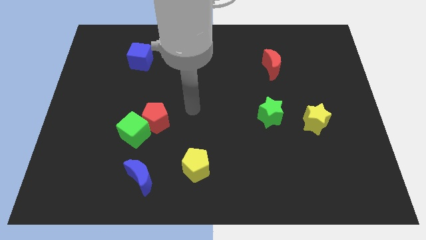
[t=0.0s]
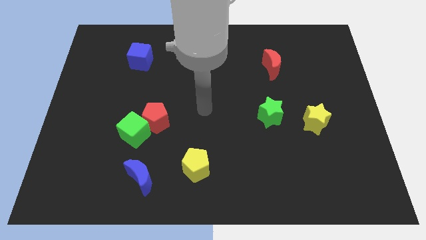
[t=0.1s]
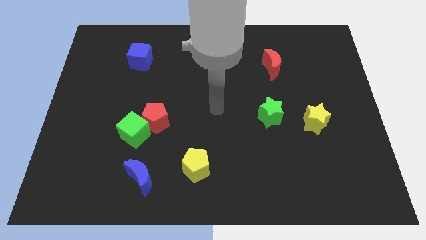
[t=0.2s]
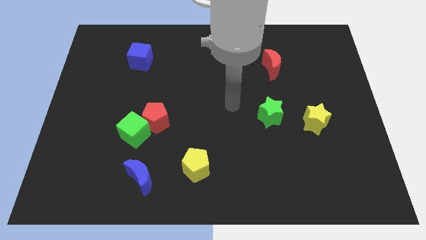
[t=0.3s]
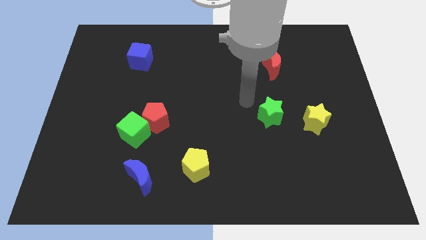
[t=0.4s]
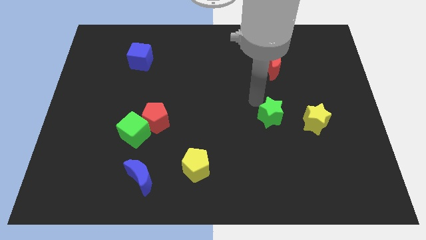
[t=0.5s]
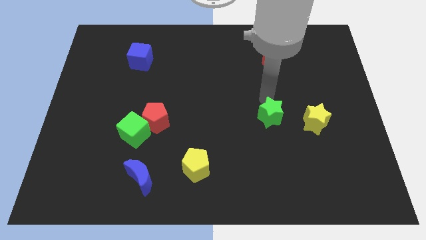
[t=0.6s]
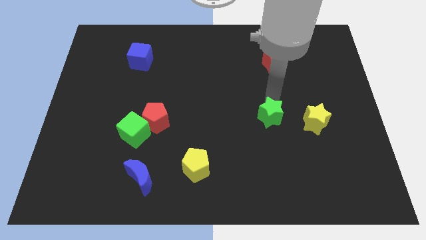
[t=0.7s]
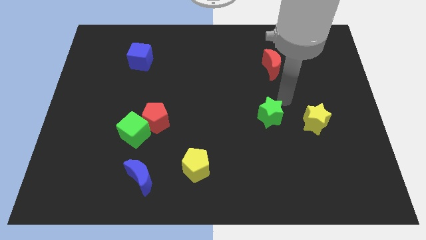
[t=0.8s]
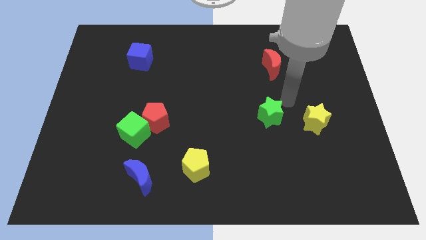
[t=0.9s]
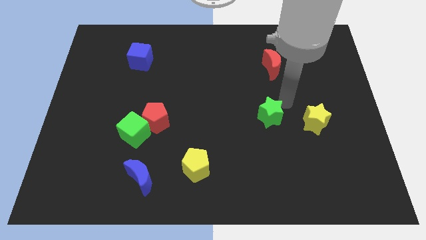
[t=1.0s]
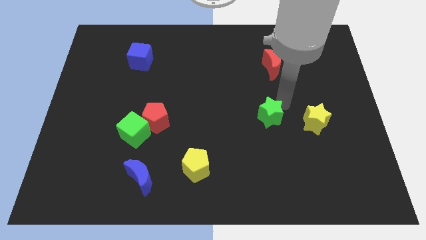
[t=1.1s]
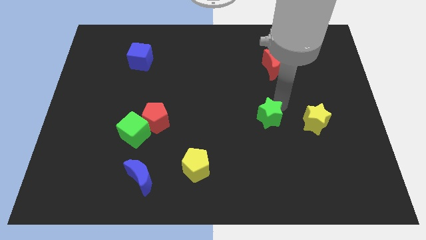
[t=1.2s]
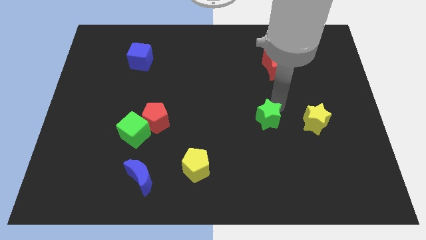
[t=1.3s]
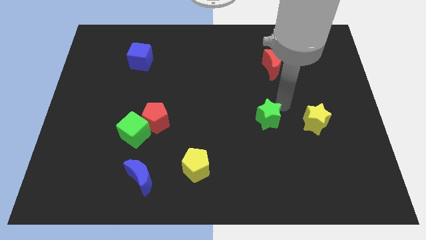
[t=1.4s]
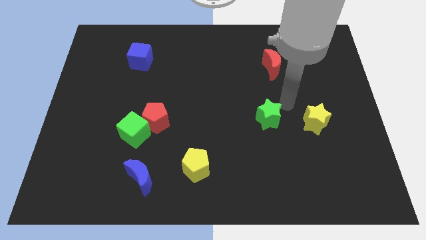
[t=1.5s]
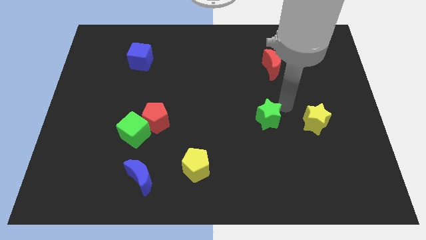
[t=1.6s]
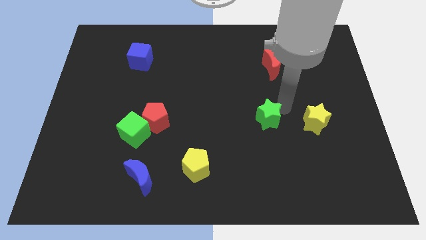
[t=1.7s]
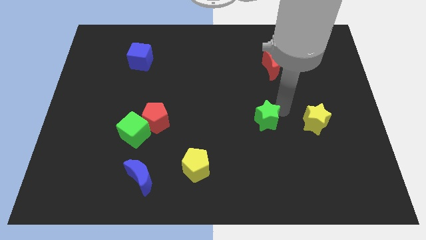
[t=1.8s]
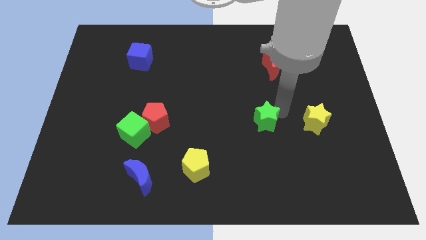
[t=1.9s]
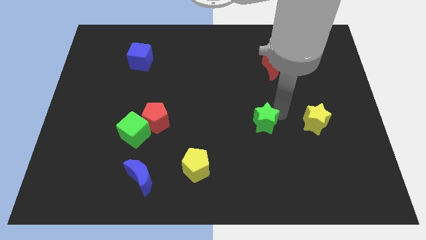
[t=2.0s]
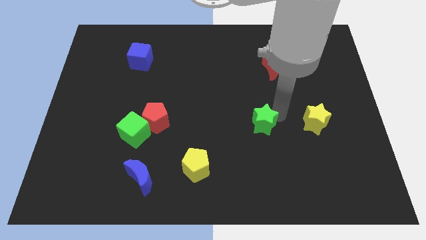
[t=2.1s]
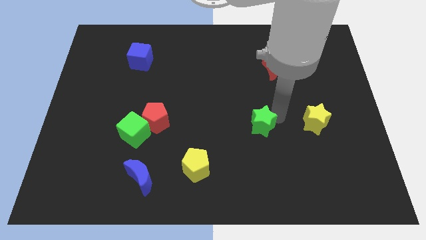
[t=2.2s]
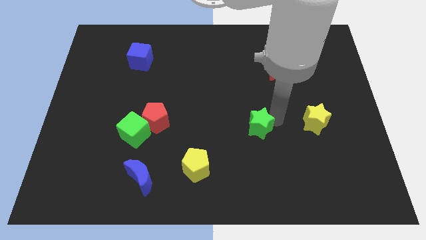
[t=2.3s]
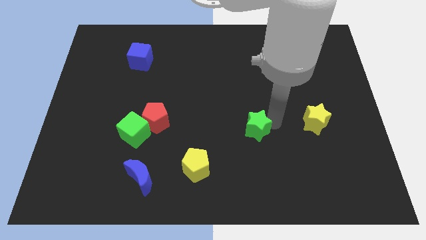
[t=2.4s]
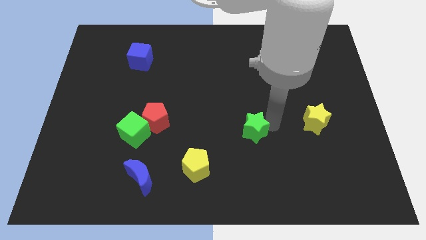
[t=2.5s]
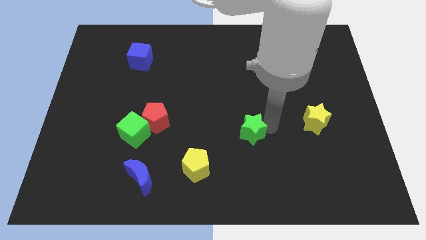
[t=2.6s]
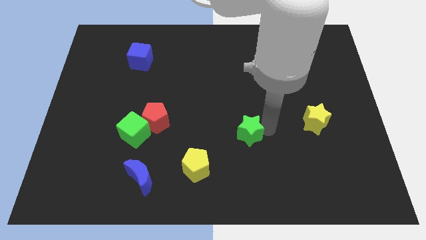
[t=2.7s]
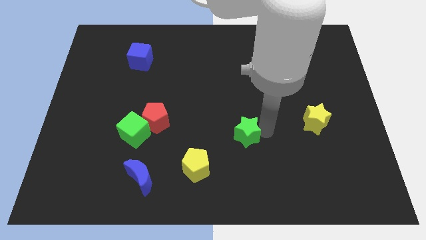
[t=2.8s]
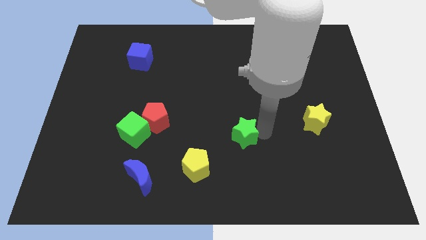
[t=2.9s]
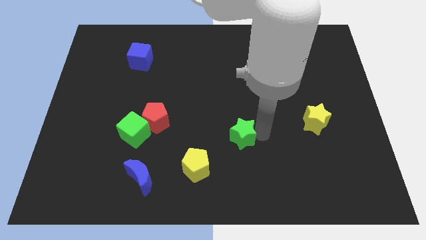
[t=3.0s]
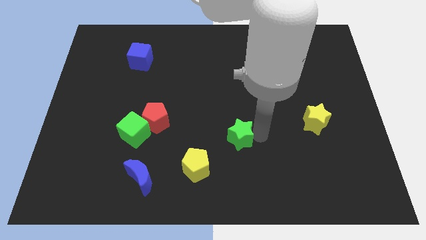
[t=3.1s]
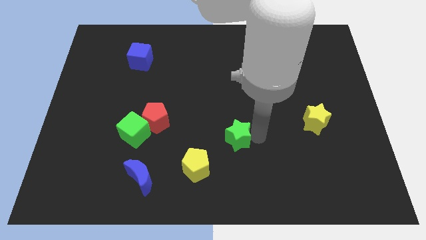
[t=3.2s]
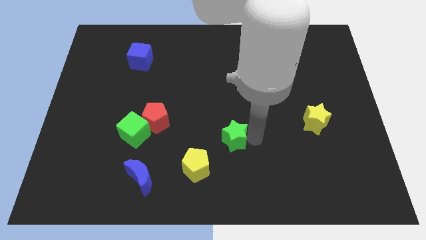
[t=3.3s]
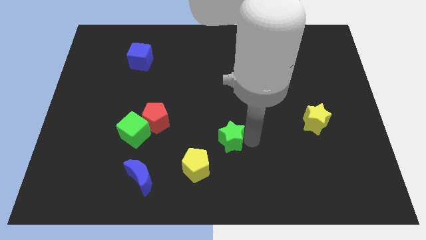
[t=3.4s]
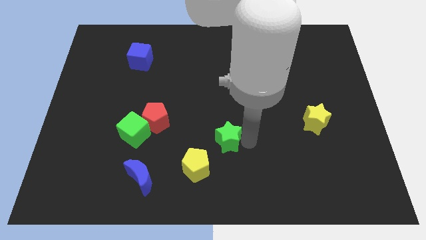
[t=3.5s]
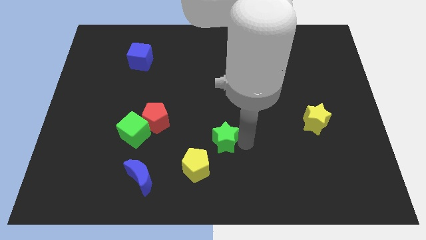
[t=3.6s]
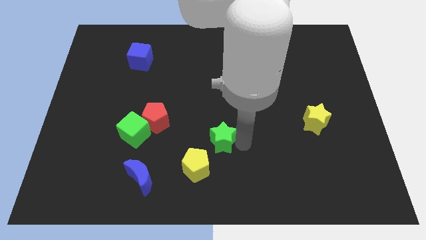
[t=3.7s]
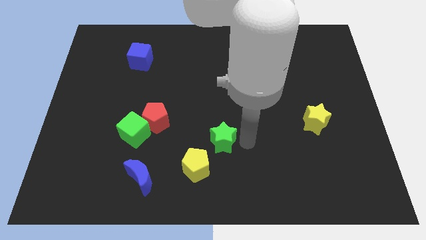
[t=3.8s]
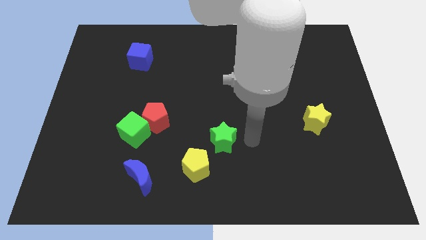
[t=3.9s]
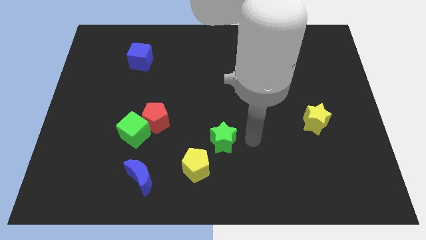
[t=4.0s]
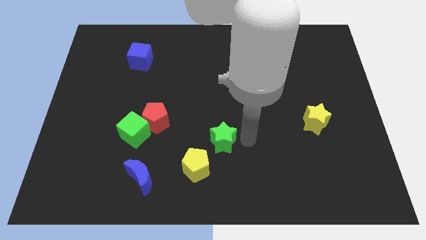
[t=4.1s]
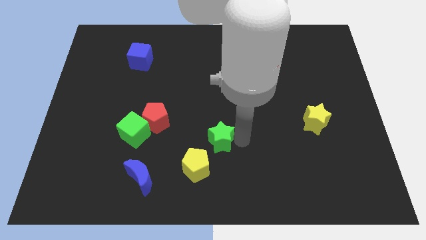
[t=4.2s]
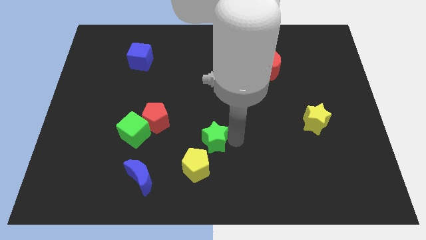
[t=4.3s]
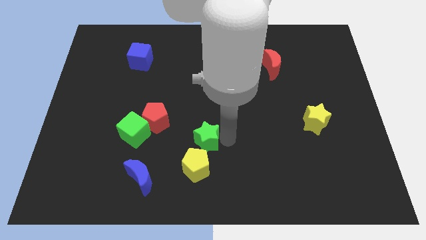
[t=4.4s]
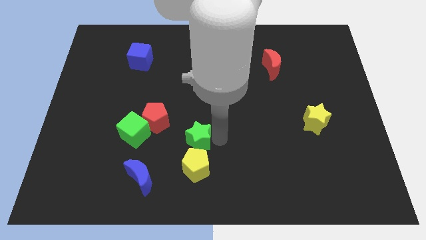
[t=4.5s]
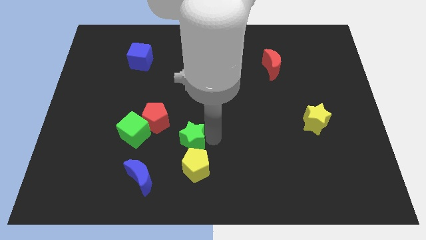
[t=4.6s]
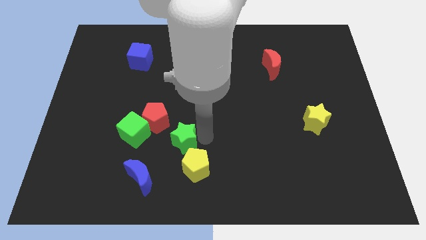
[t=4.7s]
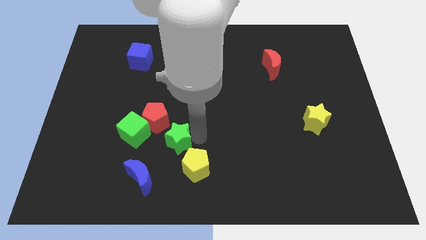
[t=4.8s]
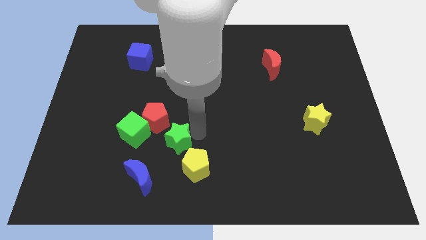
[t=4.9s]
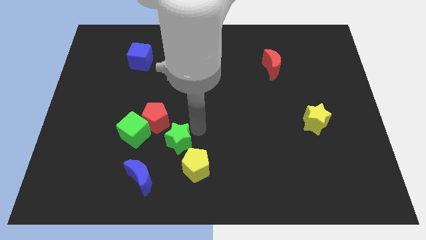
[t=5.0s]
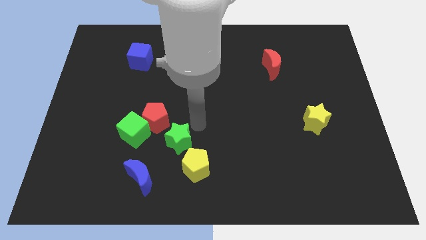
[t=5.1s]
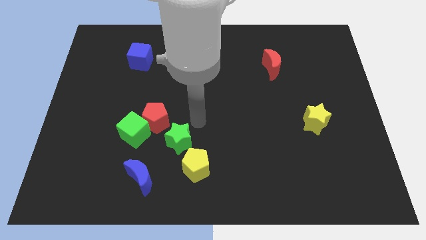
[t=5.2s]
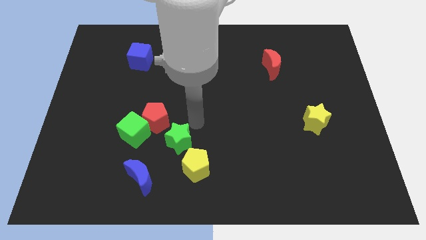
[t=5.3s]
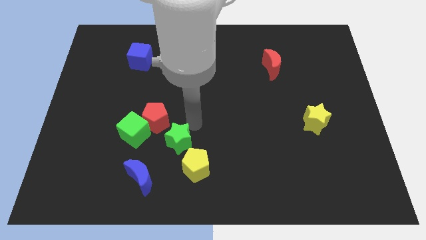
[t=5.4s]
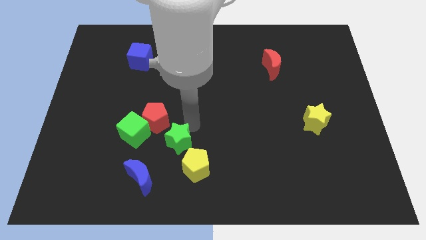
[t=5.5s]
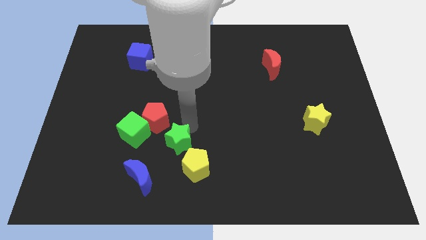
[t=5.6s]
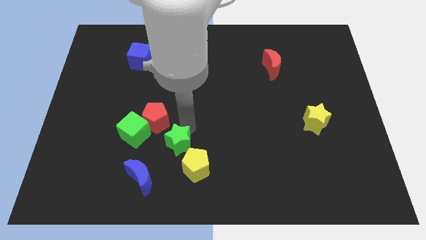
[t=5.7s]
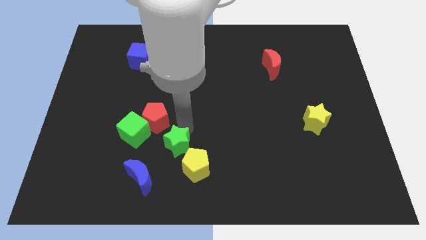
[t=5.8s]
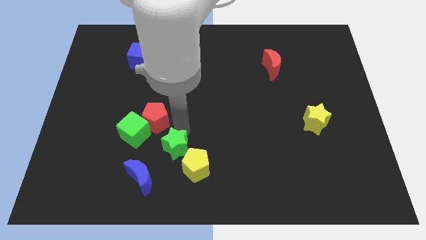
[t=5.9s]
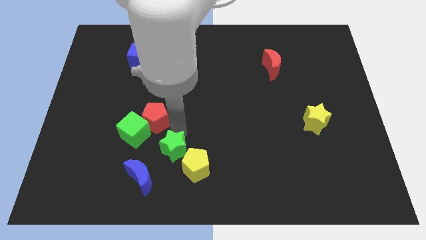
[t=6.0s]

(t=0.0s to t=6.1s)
push the green star left of the yellow pentagon

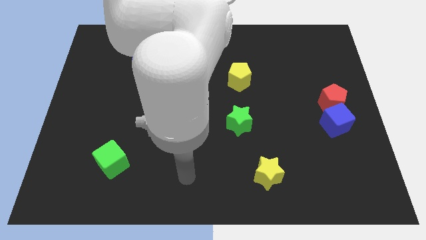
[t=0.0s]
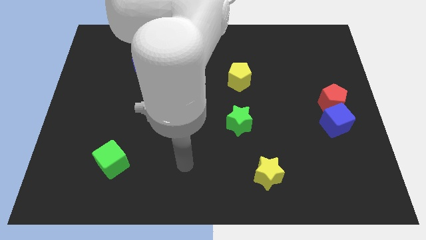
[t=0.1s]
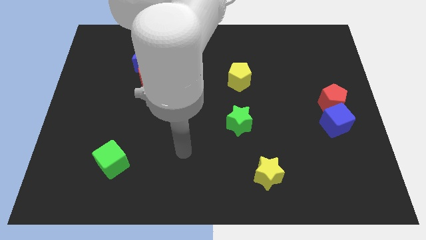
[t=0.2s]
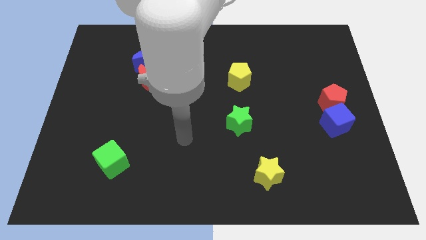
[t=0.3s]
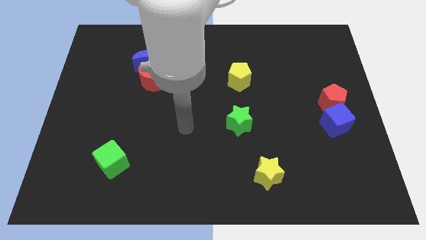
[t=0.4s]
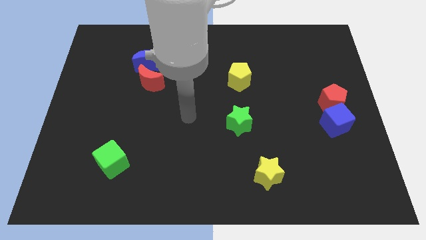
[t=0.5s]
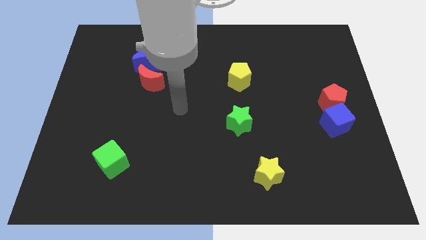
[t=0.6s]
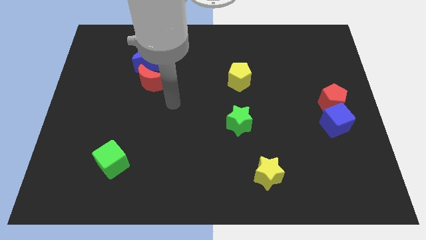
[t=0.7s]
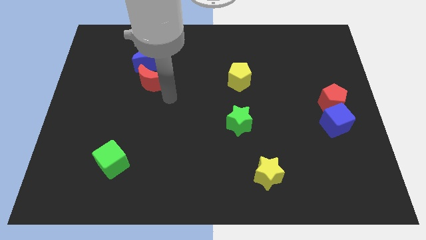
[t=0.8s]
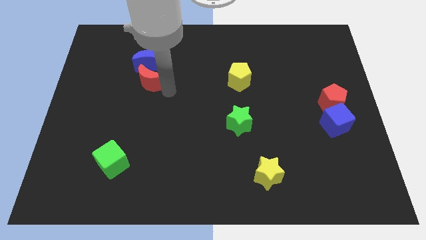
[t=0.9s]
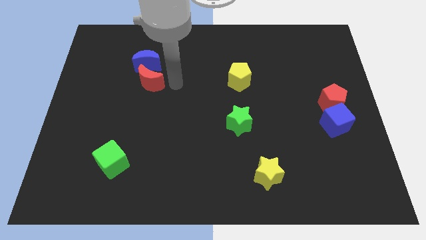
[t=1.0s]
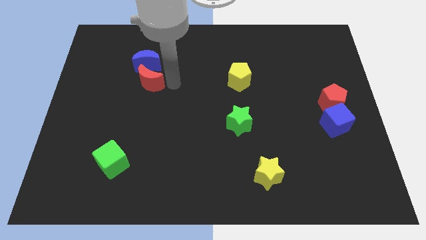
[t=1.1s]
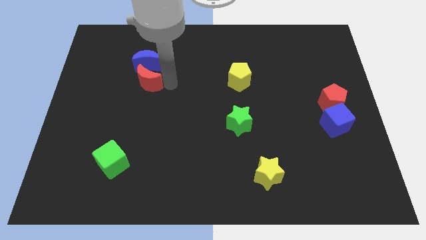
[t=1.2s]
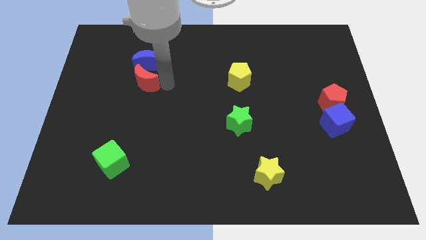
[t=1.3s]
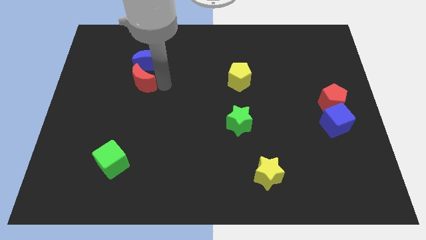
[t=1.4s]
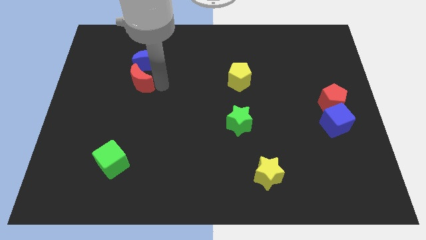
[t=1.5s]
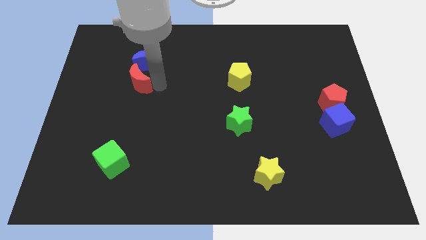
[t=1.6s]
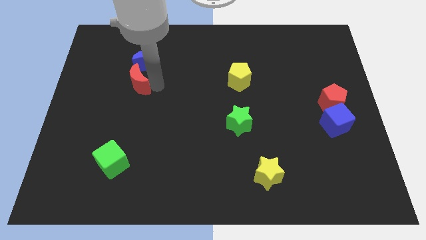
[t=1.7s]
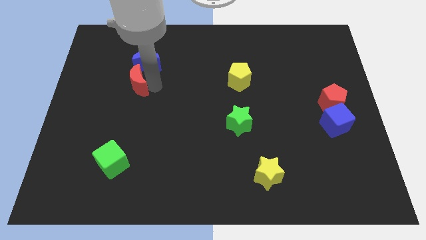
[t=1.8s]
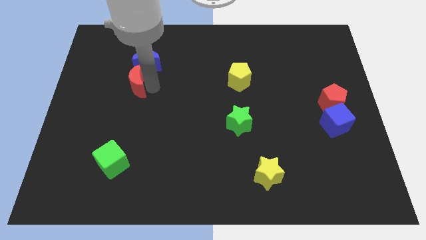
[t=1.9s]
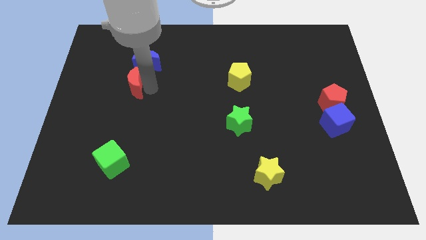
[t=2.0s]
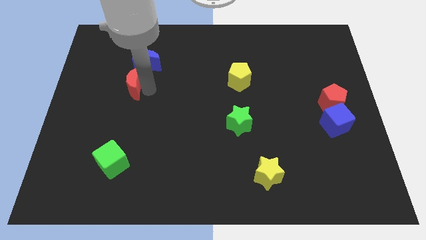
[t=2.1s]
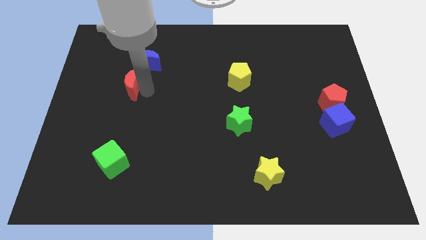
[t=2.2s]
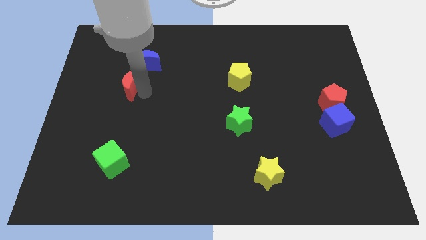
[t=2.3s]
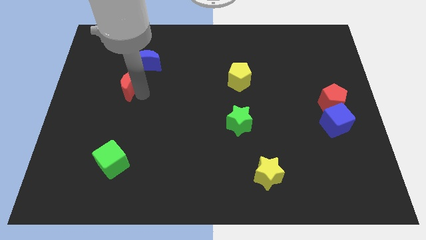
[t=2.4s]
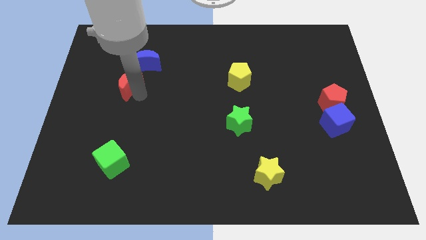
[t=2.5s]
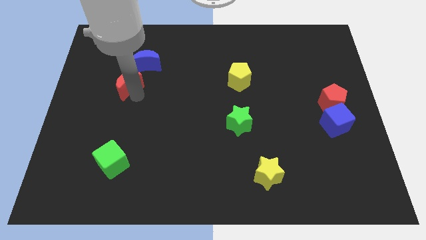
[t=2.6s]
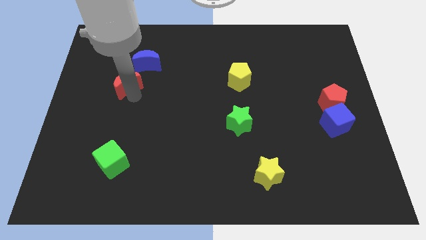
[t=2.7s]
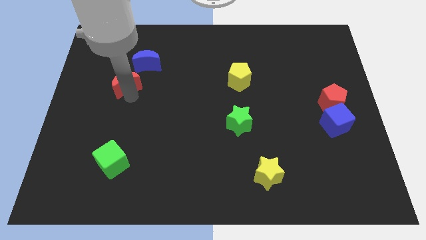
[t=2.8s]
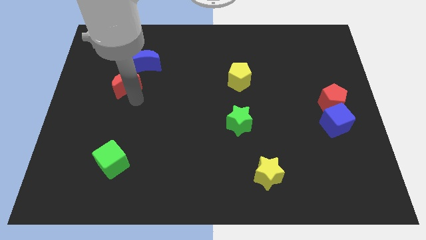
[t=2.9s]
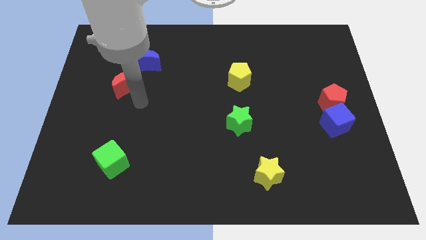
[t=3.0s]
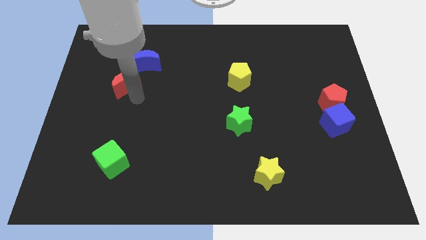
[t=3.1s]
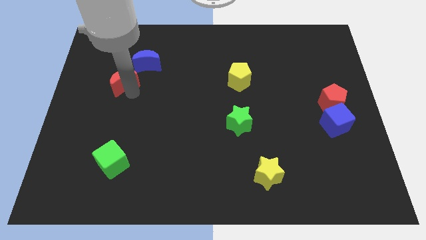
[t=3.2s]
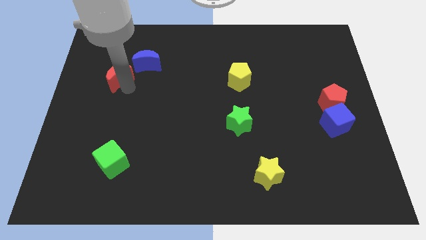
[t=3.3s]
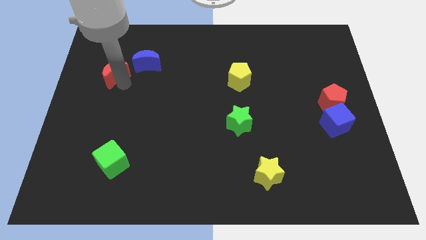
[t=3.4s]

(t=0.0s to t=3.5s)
push the red moon to the left of the blue moon
